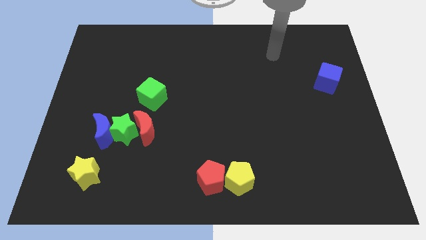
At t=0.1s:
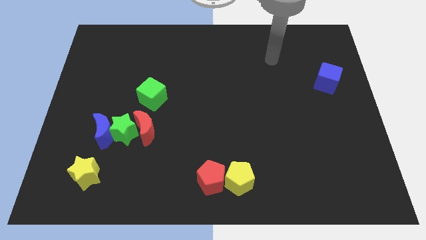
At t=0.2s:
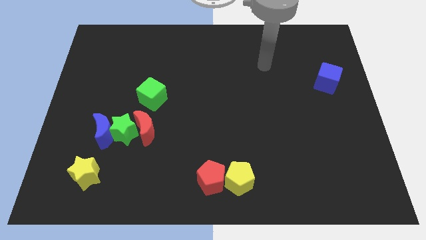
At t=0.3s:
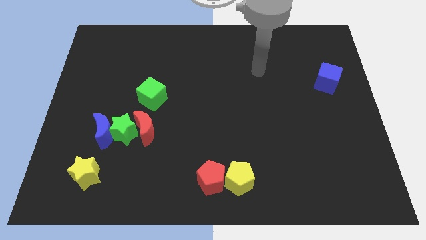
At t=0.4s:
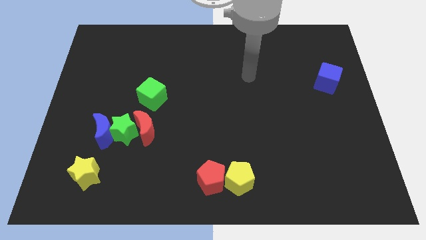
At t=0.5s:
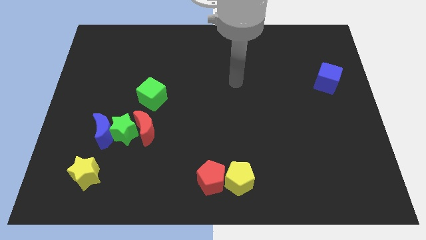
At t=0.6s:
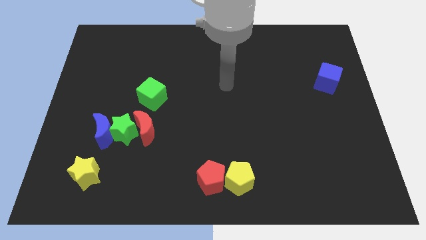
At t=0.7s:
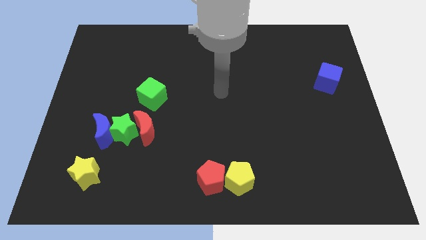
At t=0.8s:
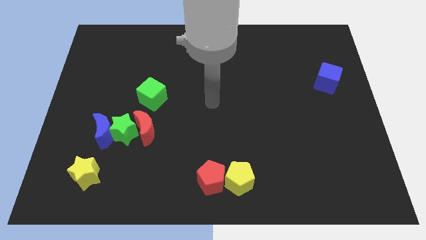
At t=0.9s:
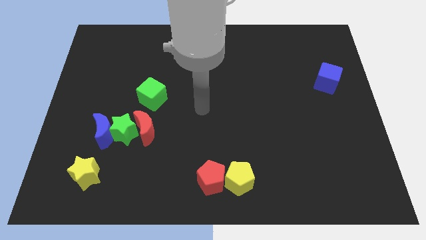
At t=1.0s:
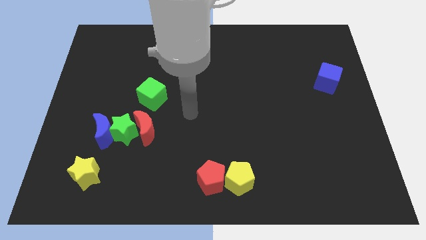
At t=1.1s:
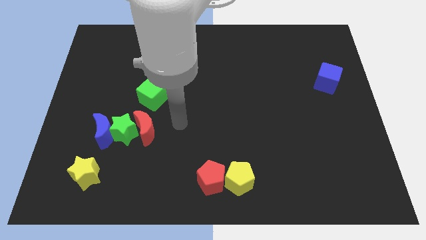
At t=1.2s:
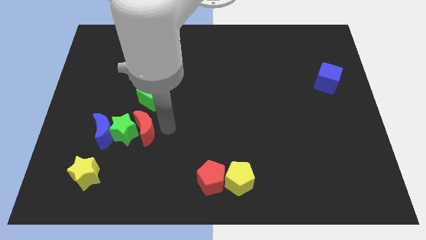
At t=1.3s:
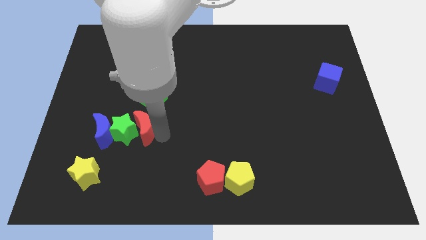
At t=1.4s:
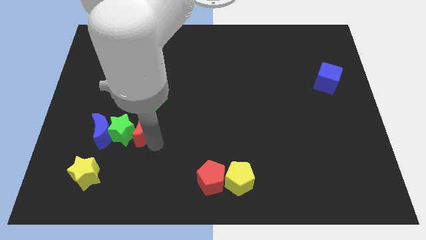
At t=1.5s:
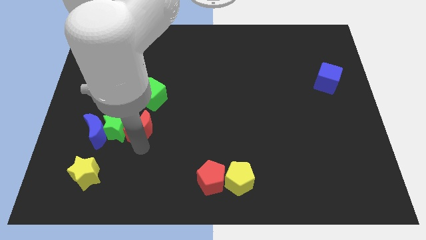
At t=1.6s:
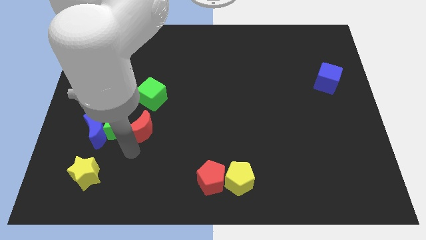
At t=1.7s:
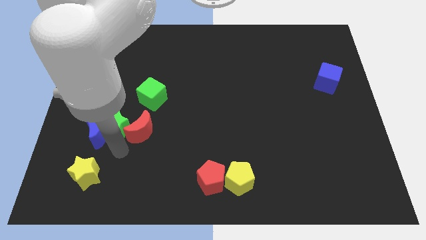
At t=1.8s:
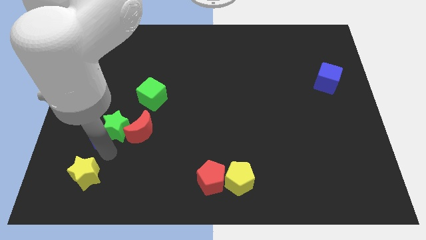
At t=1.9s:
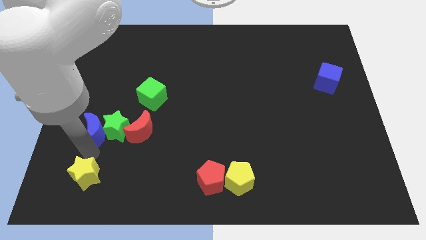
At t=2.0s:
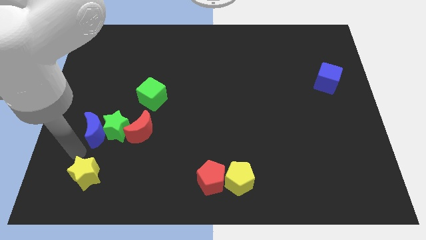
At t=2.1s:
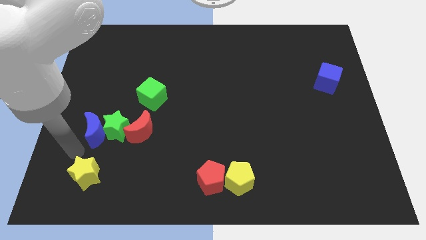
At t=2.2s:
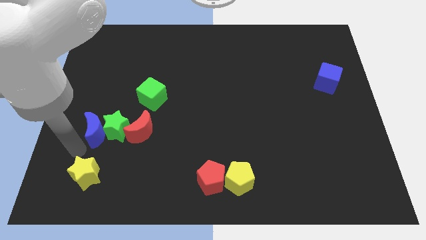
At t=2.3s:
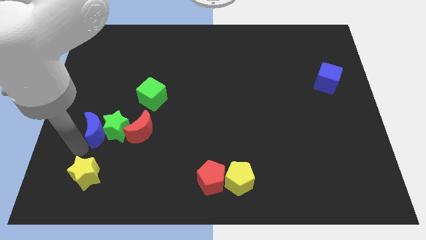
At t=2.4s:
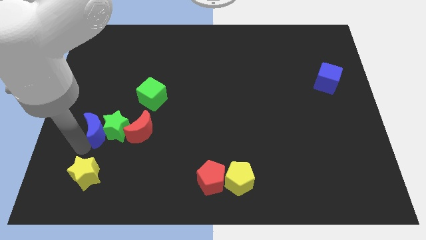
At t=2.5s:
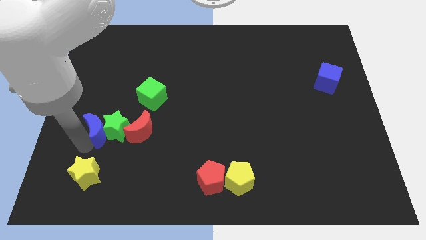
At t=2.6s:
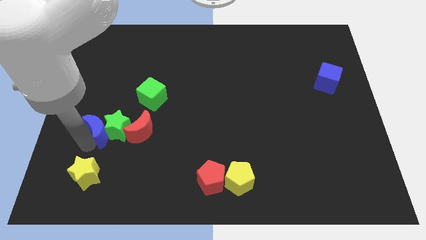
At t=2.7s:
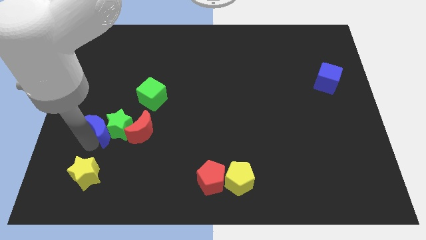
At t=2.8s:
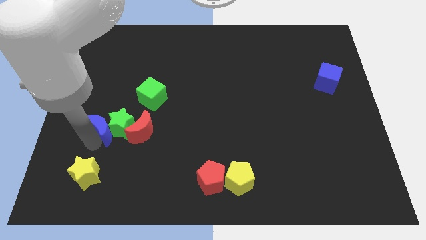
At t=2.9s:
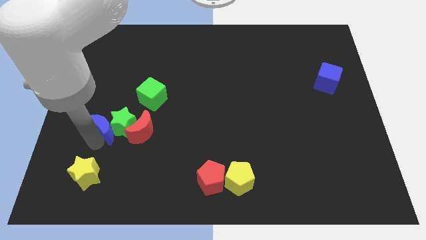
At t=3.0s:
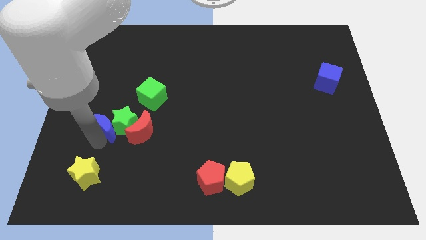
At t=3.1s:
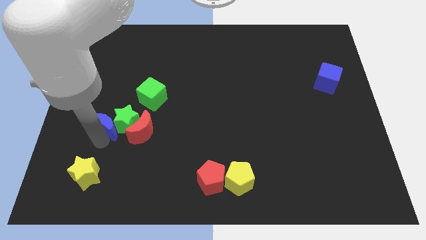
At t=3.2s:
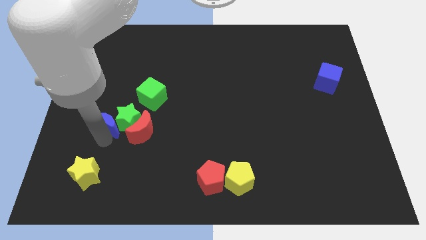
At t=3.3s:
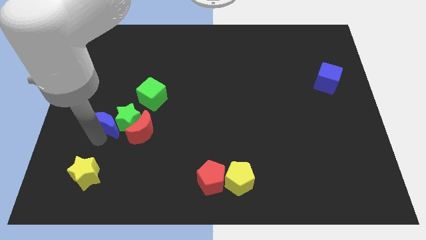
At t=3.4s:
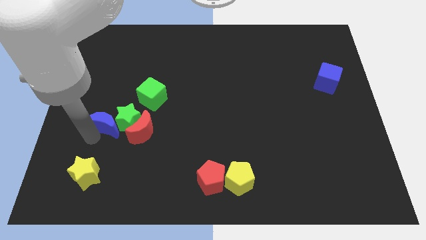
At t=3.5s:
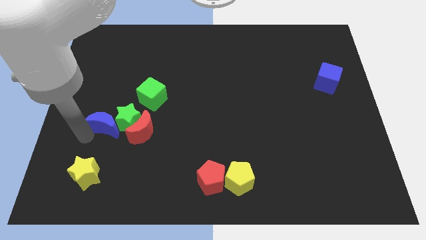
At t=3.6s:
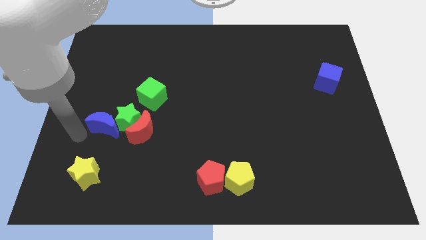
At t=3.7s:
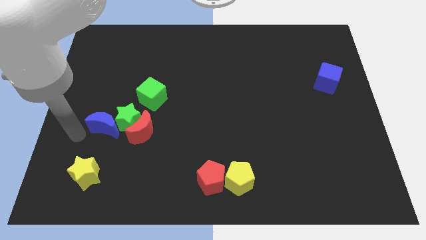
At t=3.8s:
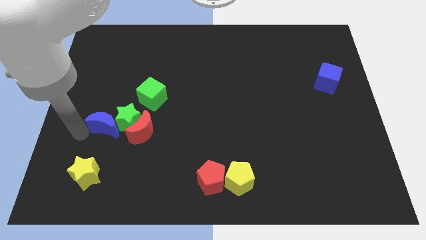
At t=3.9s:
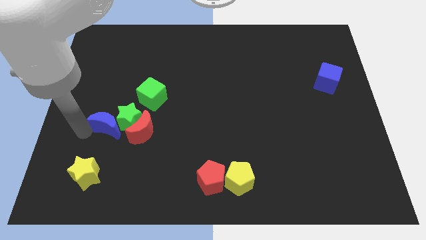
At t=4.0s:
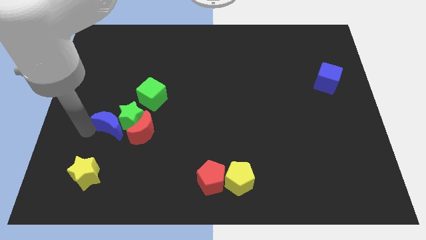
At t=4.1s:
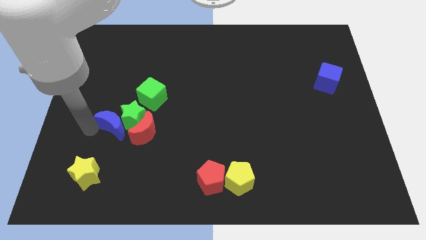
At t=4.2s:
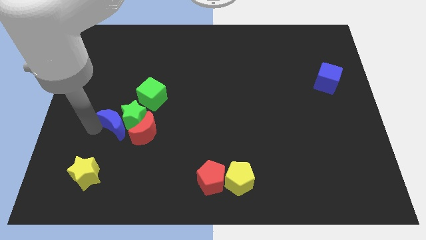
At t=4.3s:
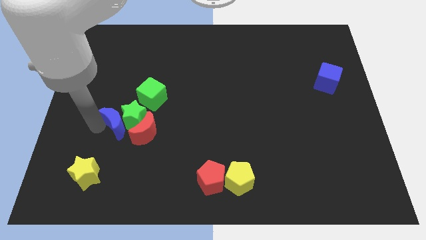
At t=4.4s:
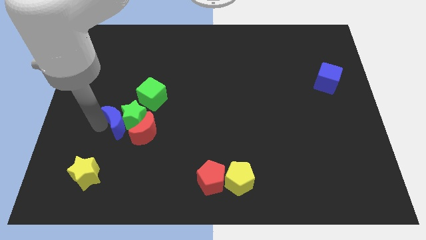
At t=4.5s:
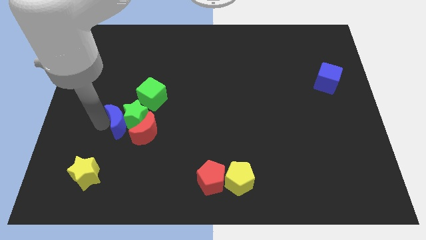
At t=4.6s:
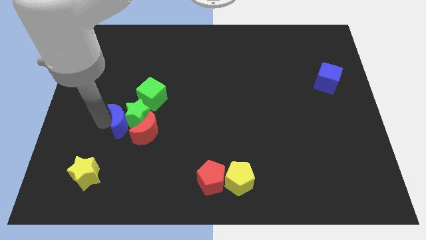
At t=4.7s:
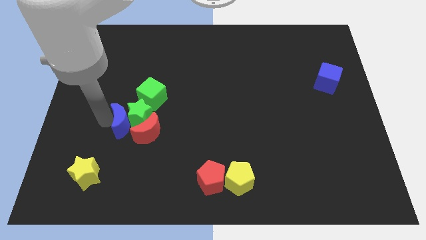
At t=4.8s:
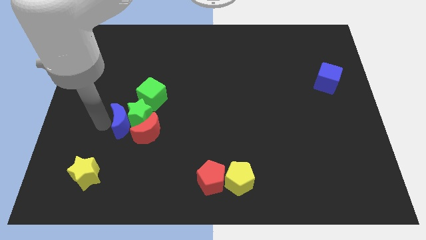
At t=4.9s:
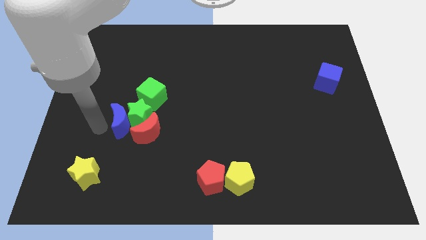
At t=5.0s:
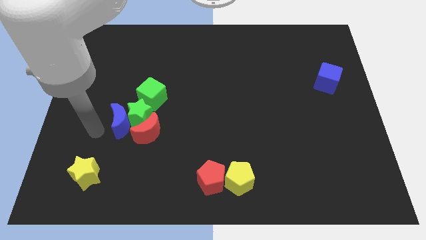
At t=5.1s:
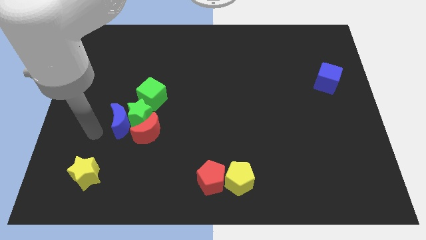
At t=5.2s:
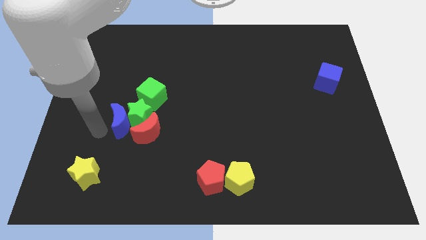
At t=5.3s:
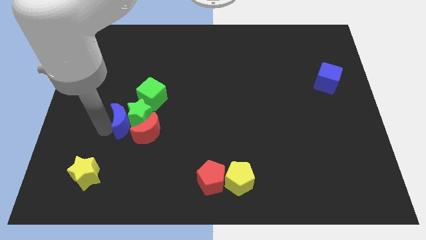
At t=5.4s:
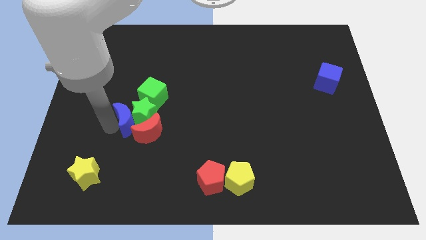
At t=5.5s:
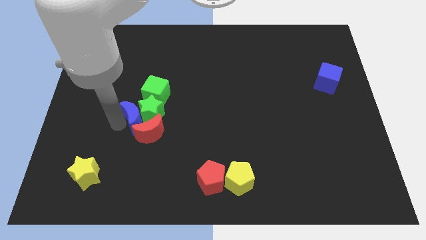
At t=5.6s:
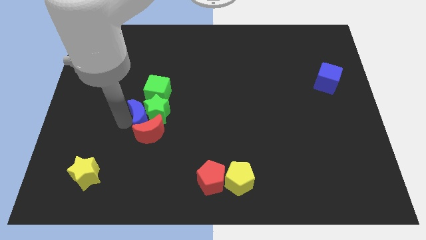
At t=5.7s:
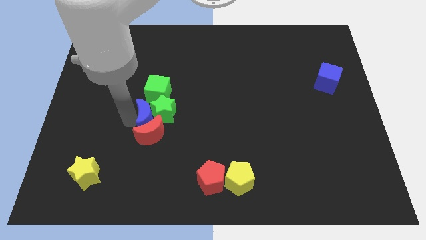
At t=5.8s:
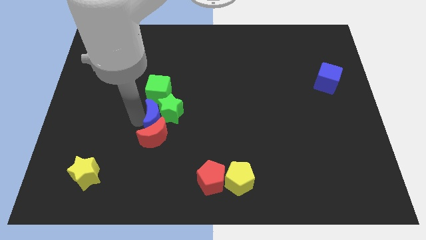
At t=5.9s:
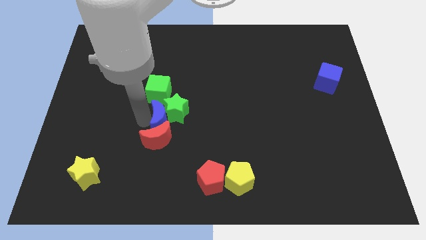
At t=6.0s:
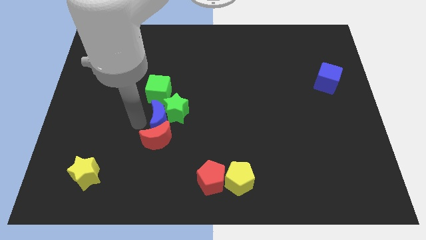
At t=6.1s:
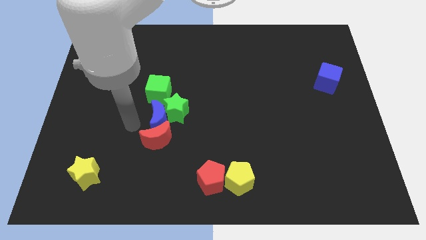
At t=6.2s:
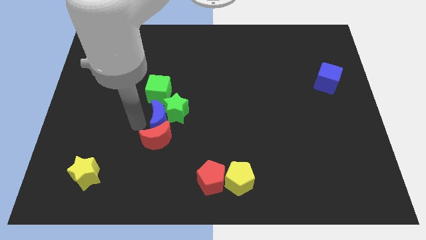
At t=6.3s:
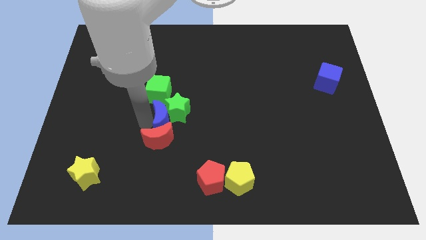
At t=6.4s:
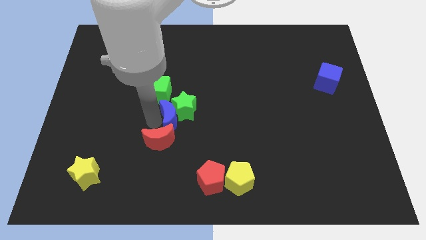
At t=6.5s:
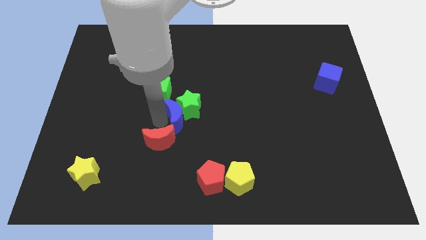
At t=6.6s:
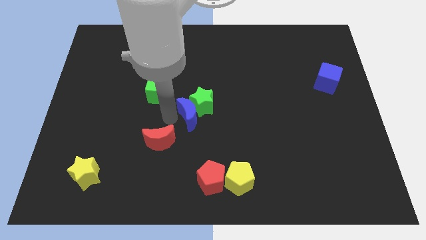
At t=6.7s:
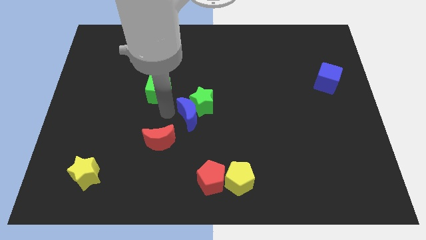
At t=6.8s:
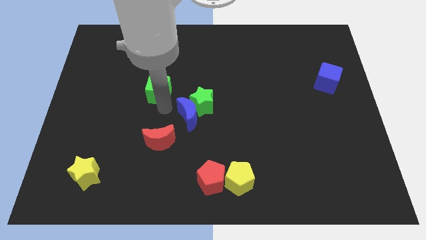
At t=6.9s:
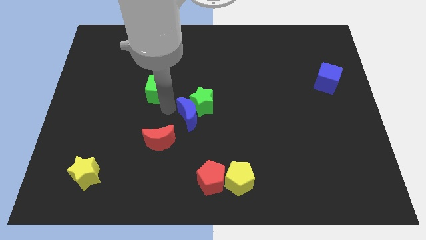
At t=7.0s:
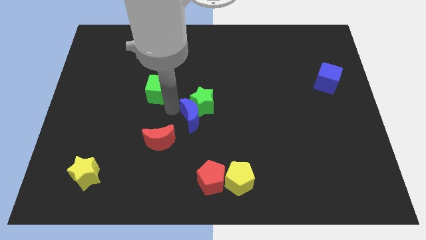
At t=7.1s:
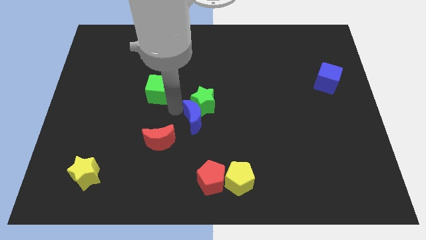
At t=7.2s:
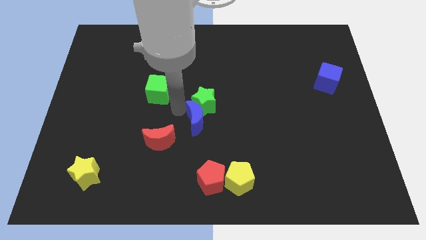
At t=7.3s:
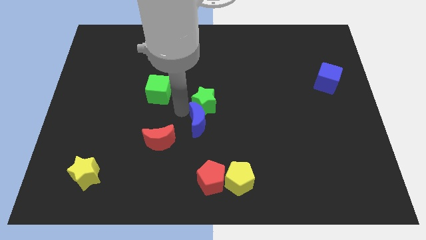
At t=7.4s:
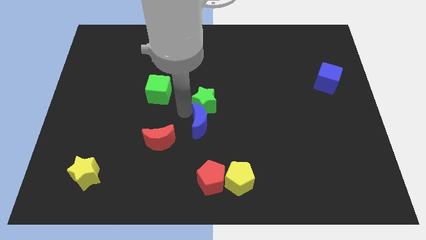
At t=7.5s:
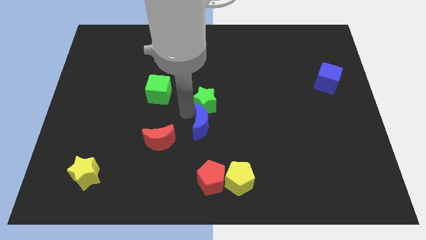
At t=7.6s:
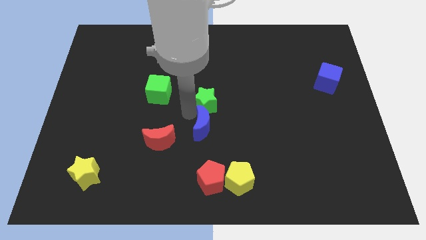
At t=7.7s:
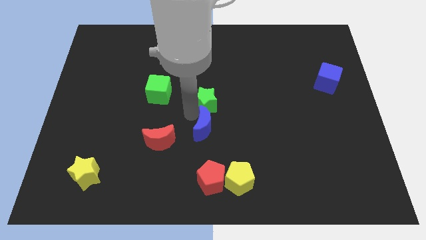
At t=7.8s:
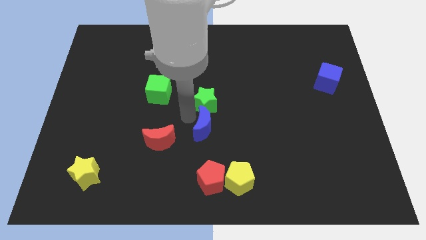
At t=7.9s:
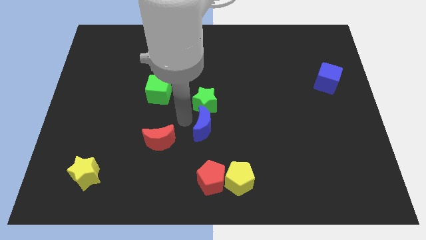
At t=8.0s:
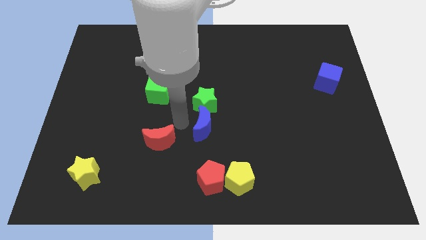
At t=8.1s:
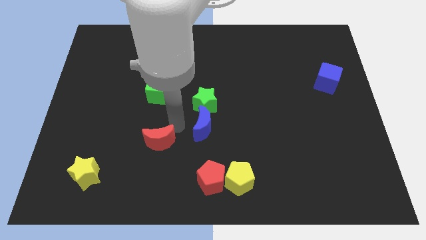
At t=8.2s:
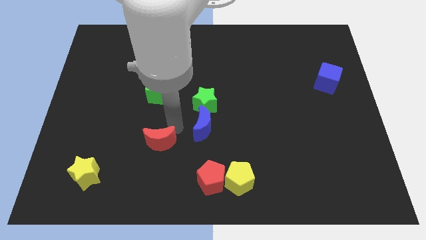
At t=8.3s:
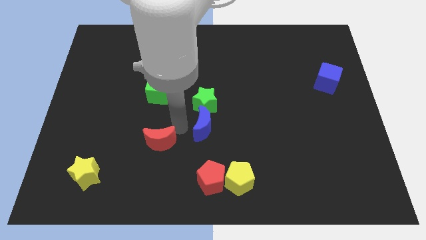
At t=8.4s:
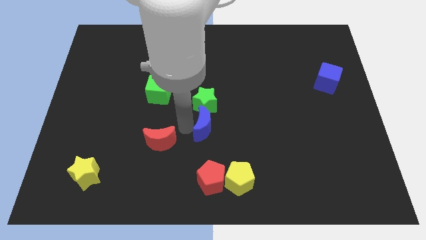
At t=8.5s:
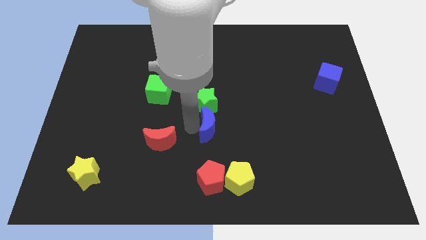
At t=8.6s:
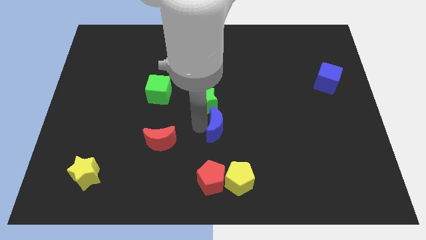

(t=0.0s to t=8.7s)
slide the blue moon above the yellow pentagon
